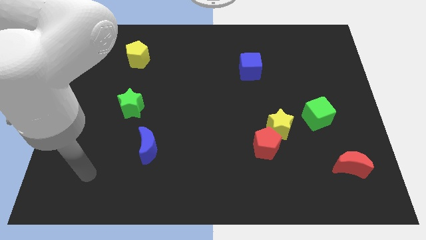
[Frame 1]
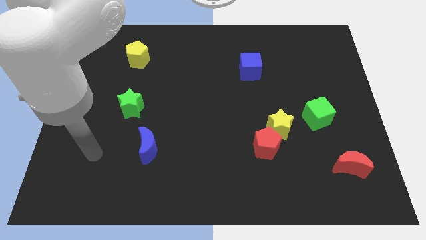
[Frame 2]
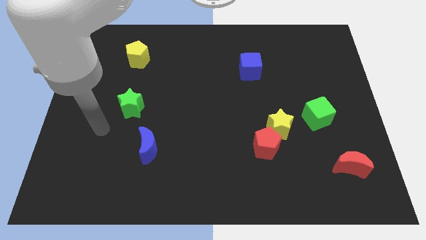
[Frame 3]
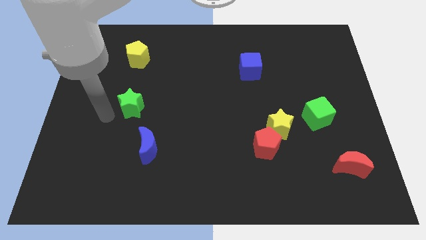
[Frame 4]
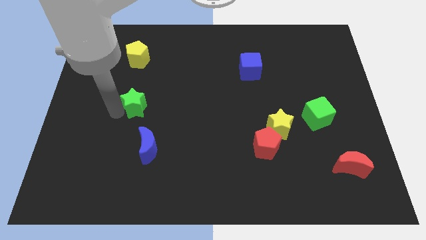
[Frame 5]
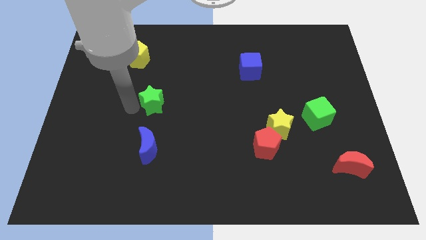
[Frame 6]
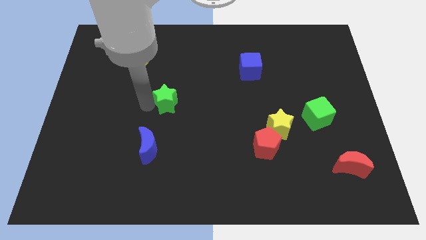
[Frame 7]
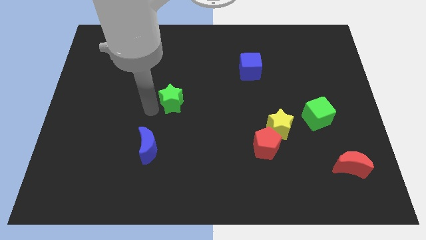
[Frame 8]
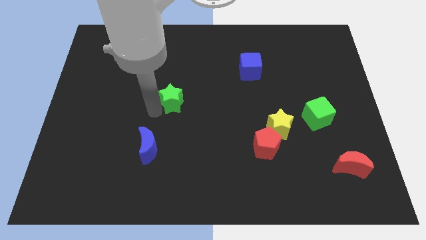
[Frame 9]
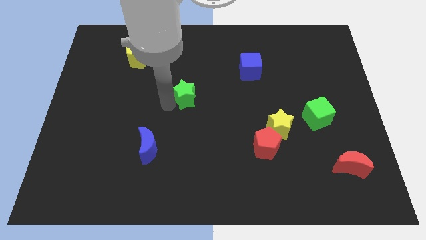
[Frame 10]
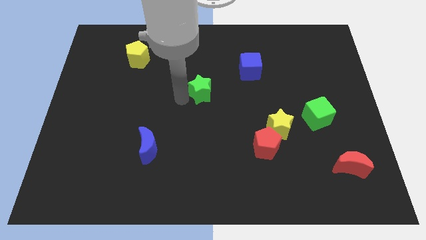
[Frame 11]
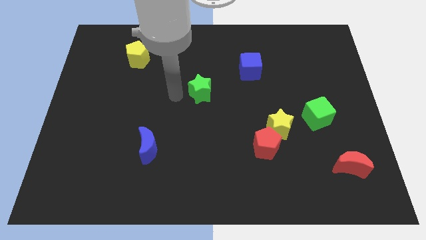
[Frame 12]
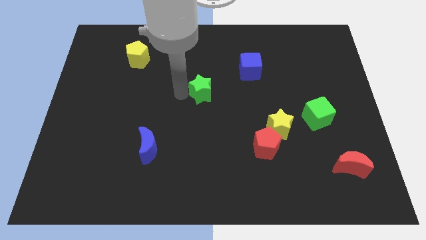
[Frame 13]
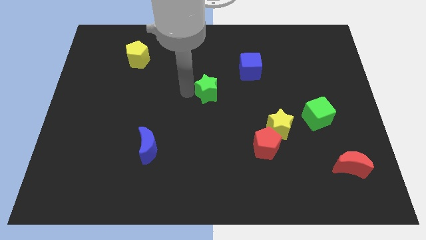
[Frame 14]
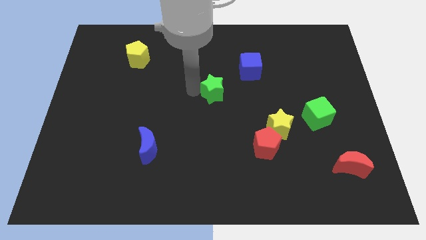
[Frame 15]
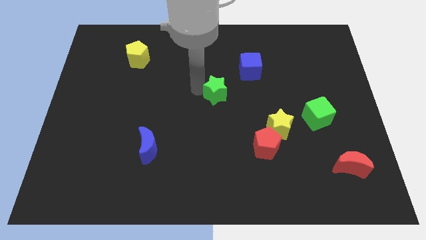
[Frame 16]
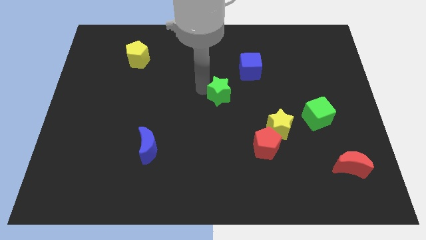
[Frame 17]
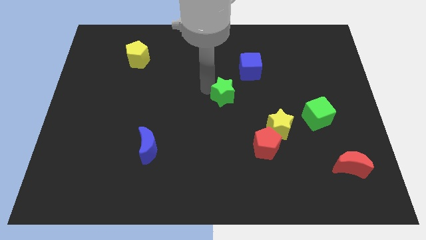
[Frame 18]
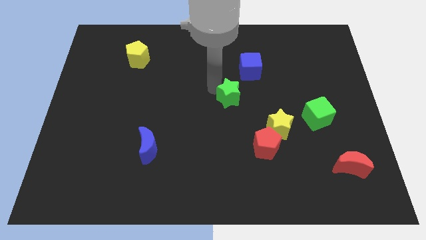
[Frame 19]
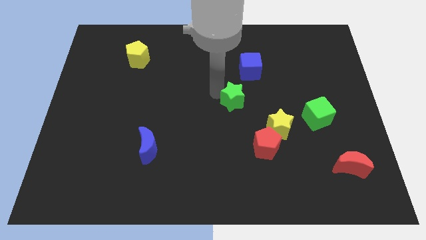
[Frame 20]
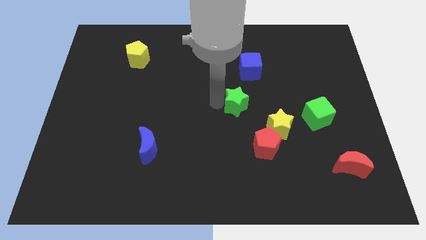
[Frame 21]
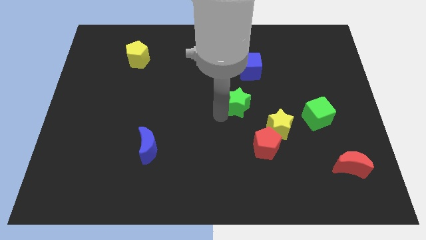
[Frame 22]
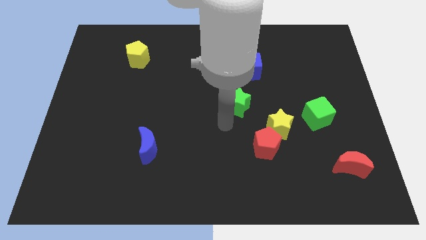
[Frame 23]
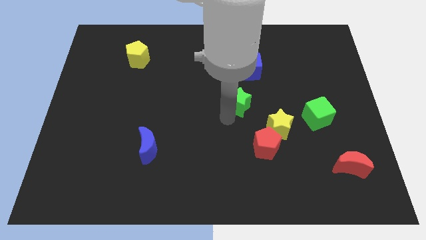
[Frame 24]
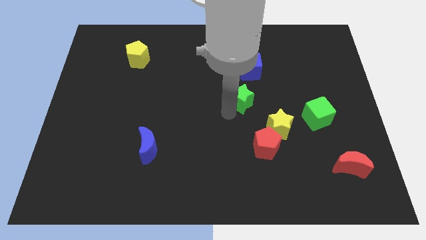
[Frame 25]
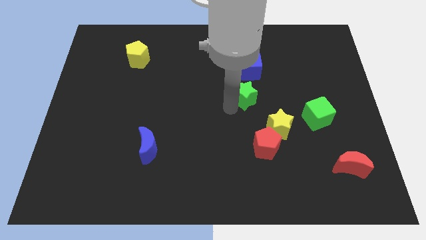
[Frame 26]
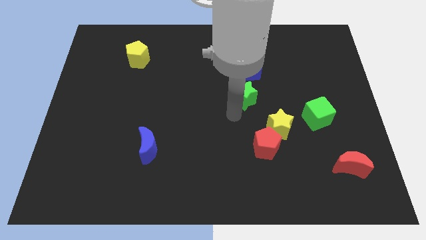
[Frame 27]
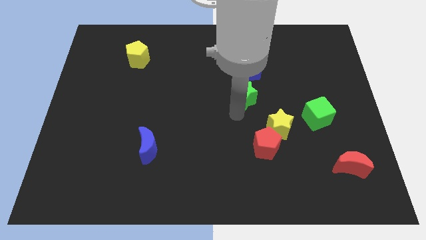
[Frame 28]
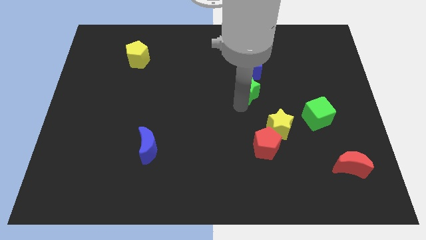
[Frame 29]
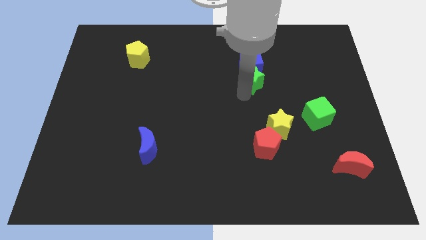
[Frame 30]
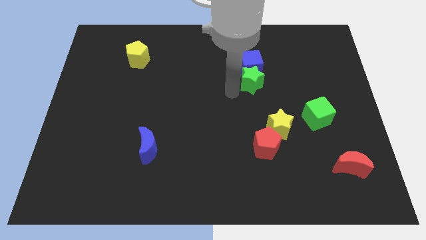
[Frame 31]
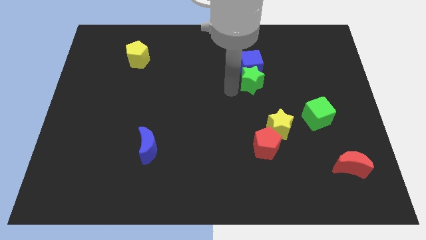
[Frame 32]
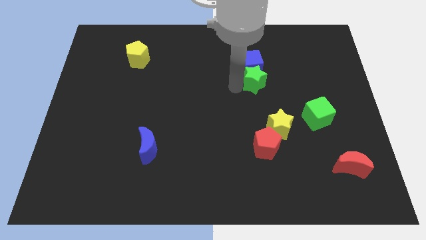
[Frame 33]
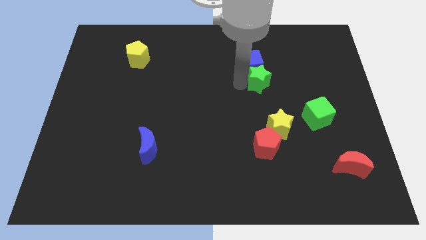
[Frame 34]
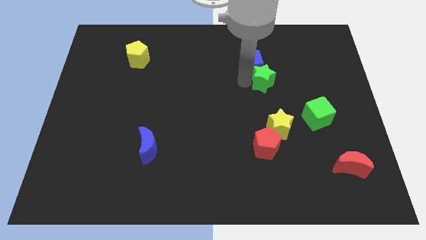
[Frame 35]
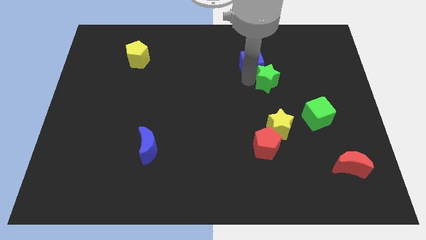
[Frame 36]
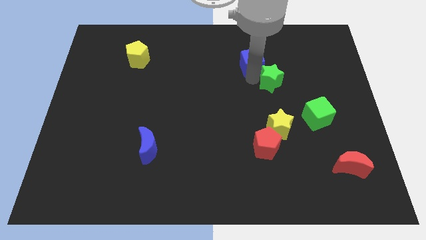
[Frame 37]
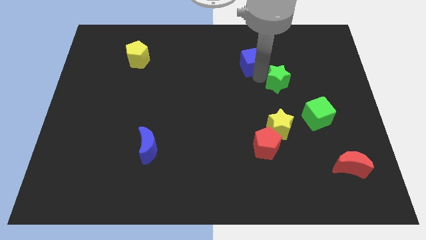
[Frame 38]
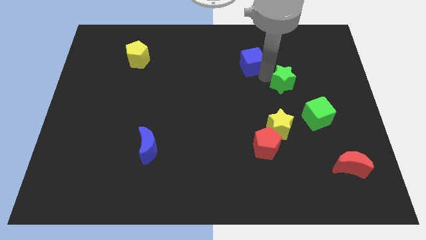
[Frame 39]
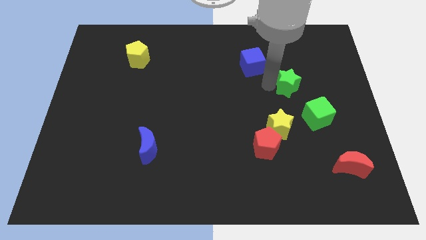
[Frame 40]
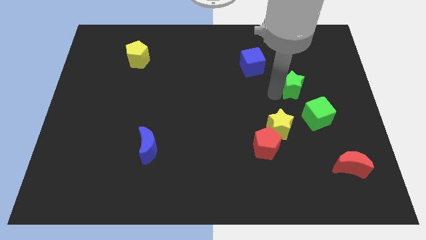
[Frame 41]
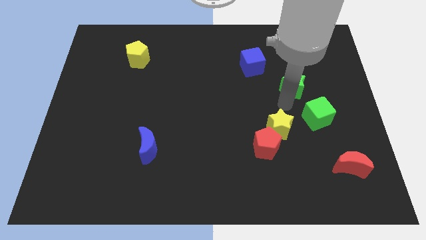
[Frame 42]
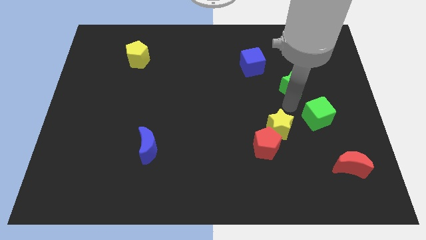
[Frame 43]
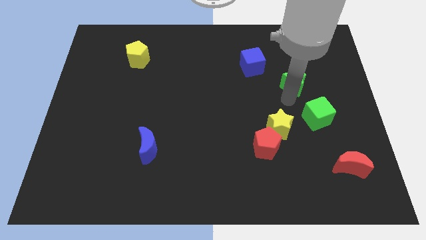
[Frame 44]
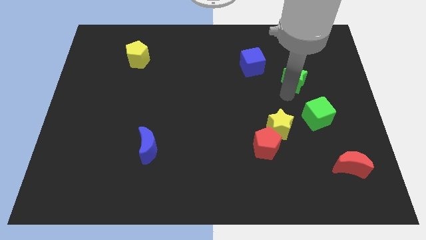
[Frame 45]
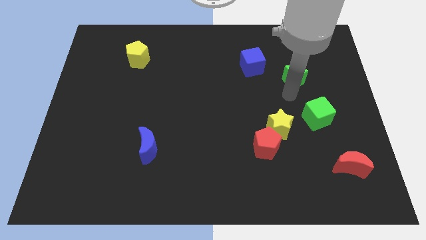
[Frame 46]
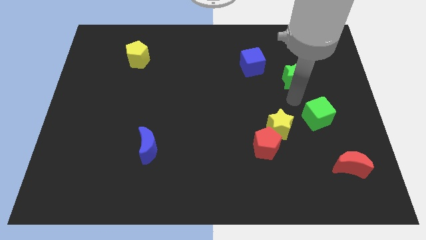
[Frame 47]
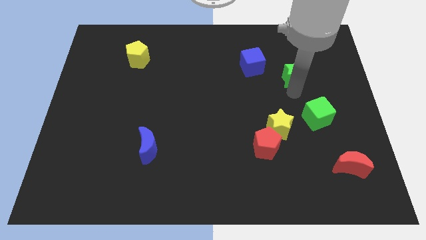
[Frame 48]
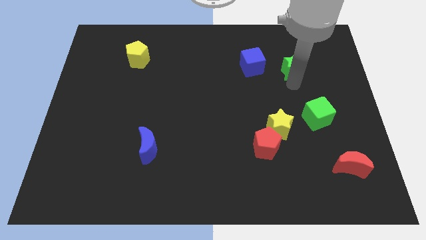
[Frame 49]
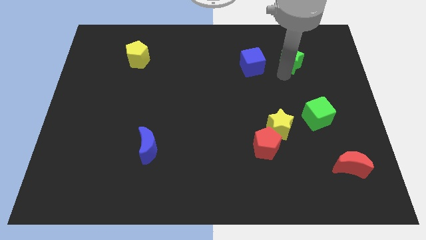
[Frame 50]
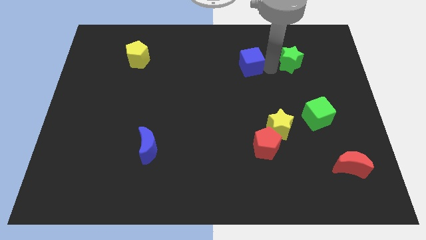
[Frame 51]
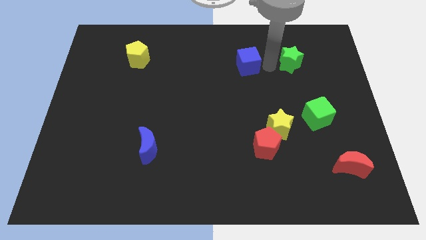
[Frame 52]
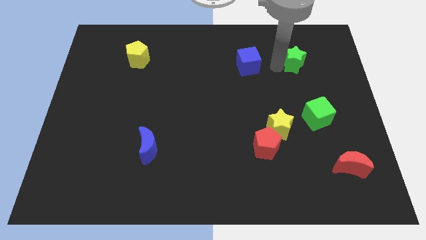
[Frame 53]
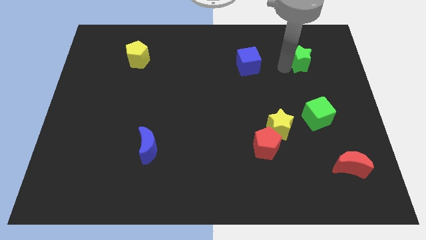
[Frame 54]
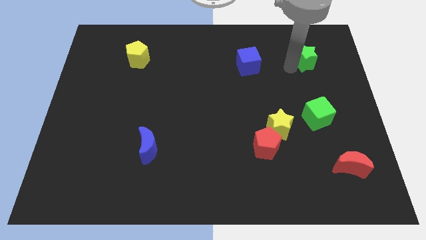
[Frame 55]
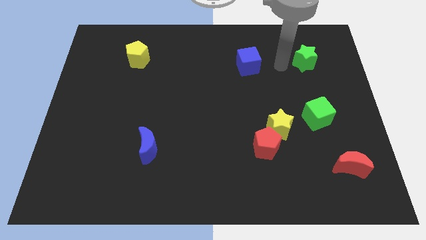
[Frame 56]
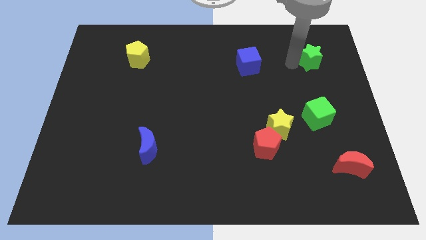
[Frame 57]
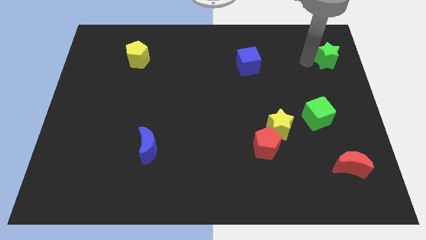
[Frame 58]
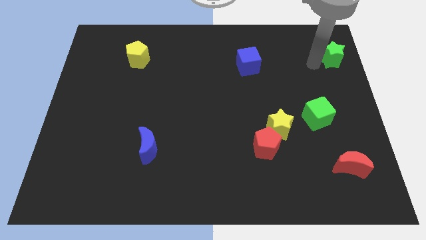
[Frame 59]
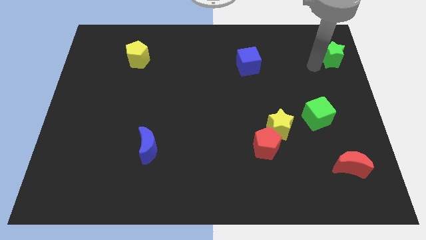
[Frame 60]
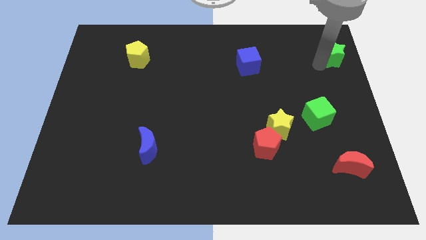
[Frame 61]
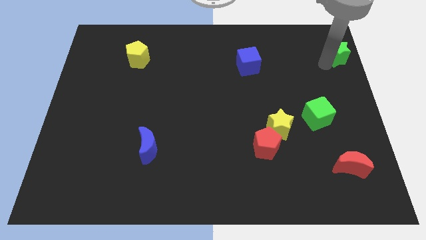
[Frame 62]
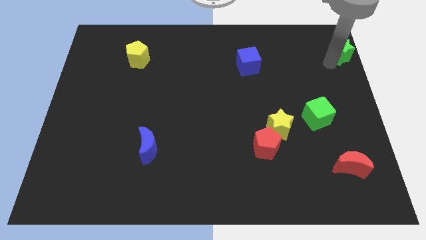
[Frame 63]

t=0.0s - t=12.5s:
put the green star to the top right of the board

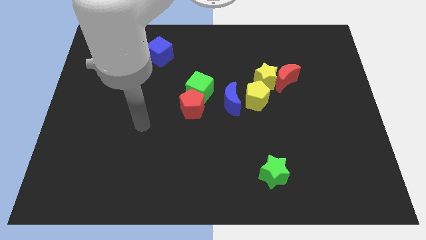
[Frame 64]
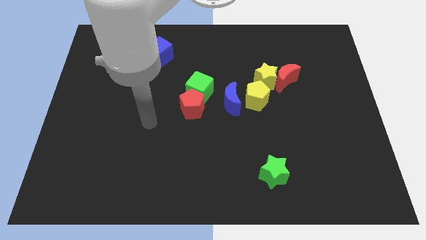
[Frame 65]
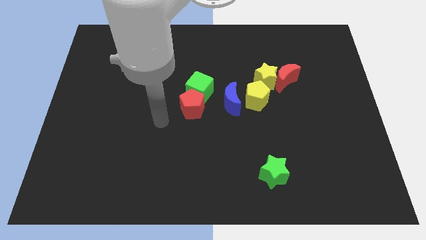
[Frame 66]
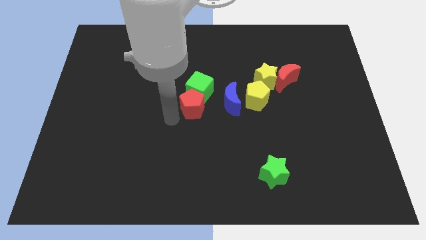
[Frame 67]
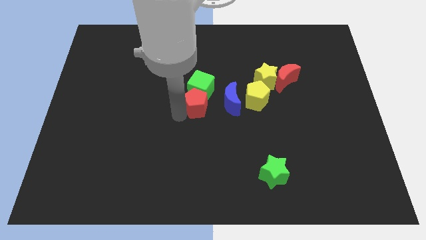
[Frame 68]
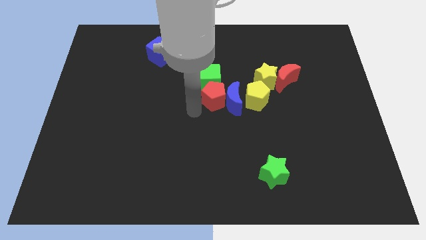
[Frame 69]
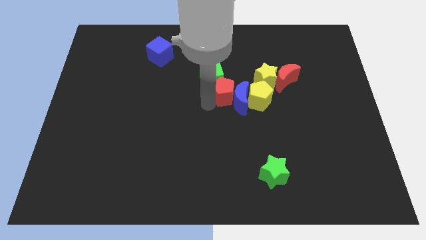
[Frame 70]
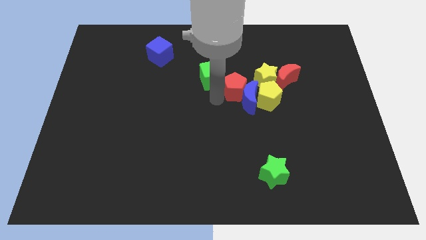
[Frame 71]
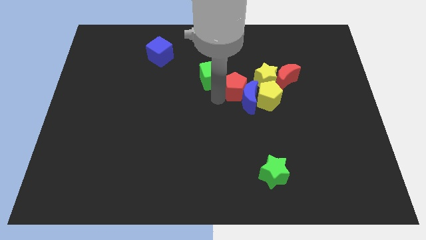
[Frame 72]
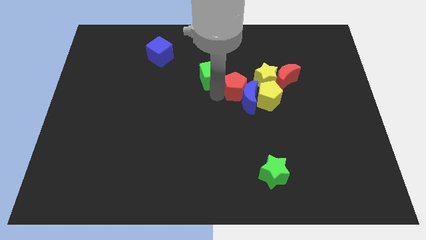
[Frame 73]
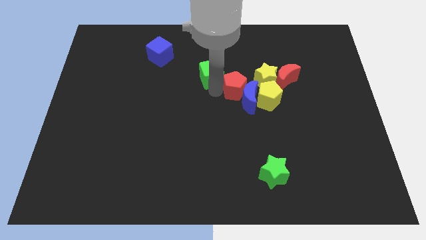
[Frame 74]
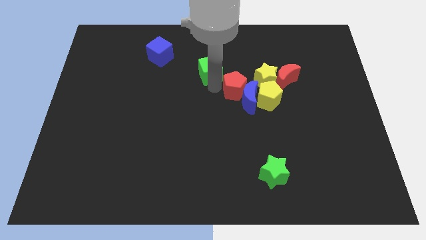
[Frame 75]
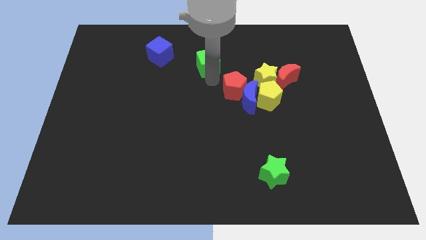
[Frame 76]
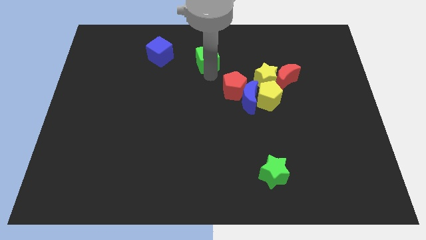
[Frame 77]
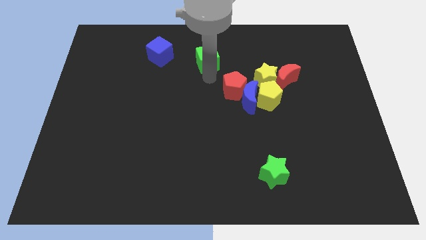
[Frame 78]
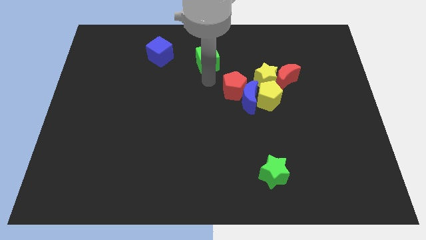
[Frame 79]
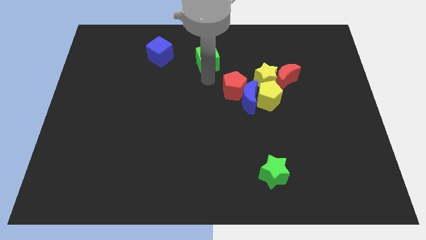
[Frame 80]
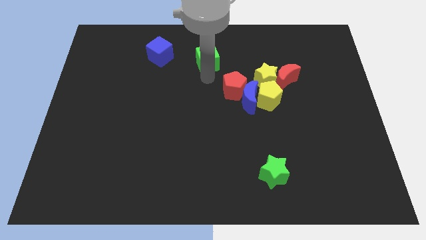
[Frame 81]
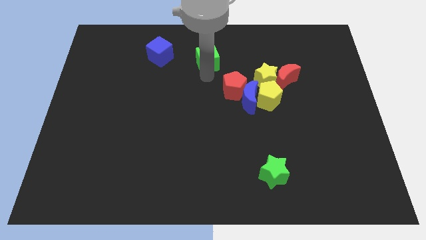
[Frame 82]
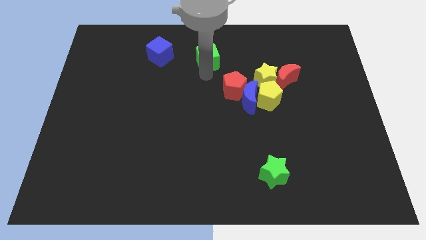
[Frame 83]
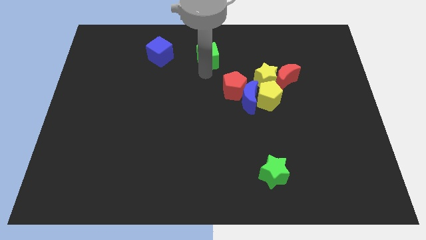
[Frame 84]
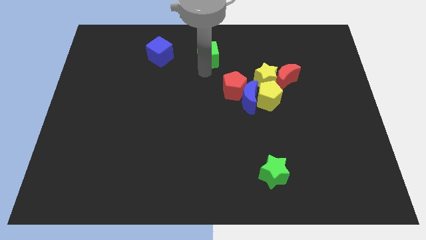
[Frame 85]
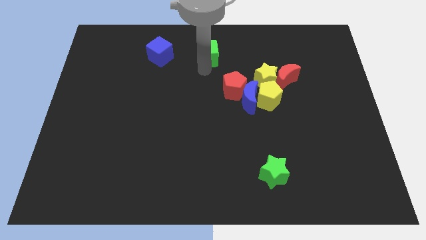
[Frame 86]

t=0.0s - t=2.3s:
push the green cube to the top side
